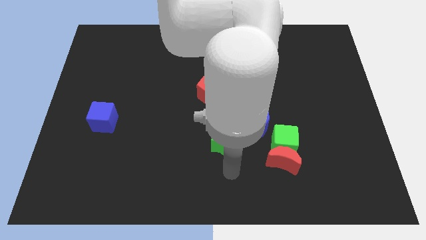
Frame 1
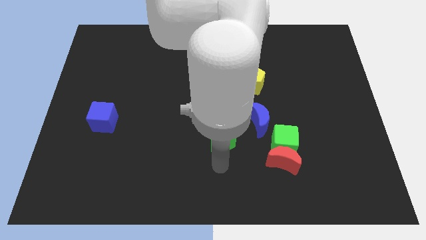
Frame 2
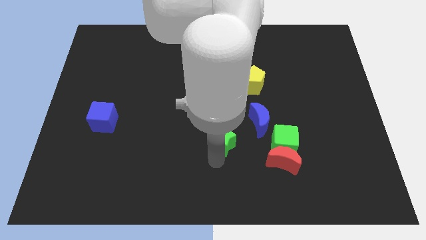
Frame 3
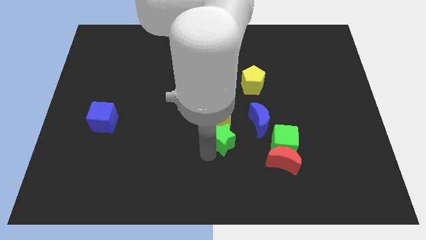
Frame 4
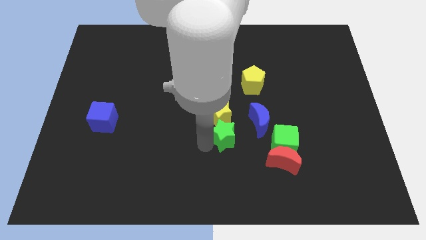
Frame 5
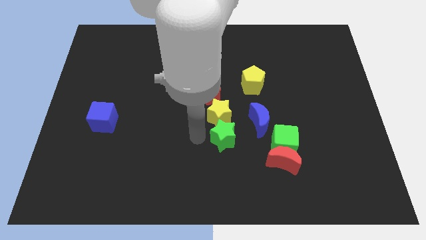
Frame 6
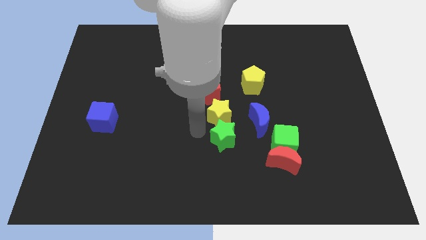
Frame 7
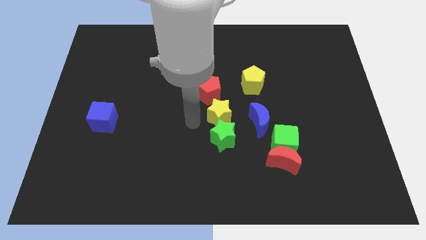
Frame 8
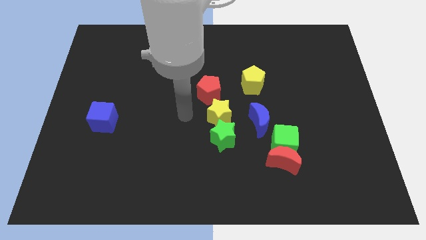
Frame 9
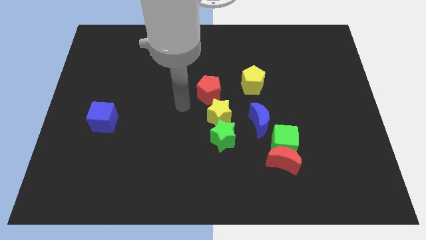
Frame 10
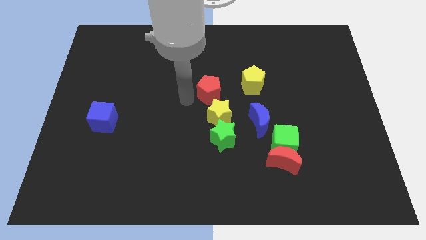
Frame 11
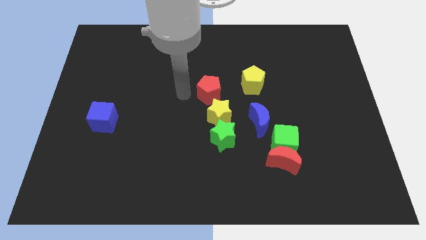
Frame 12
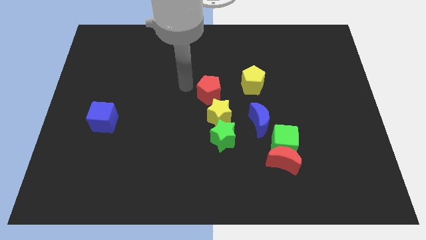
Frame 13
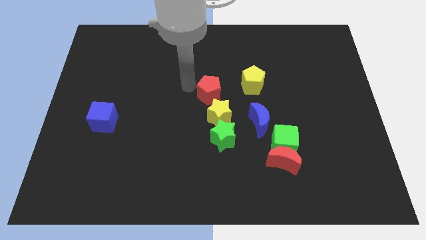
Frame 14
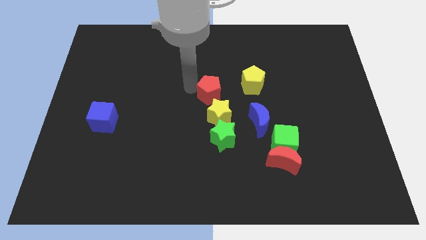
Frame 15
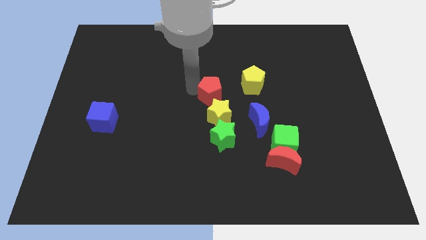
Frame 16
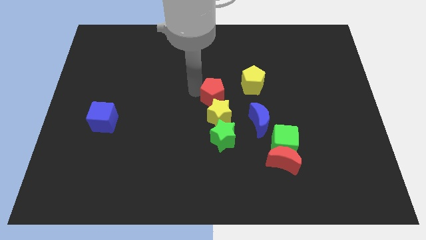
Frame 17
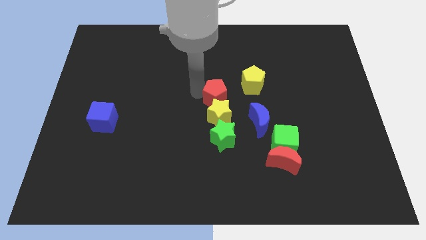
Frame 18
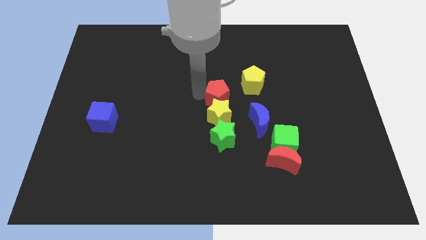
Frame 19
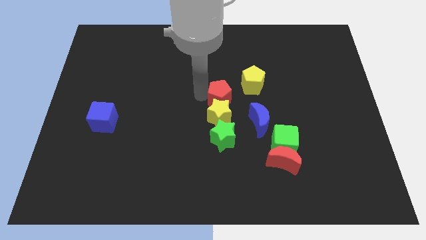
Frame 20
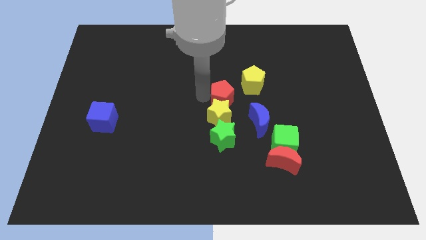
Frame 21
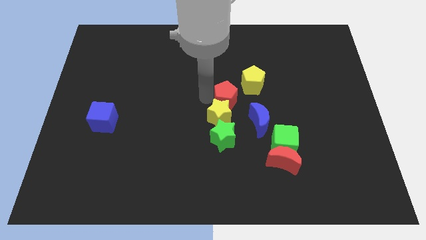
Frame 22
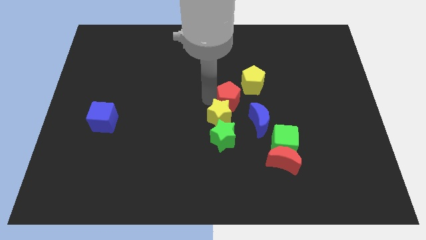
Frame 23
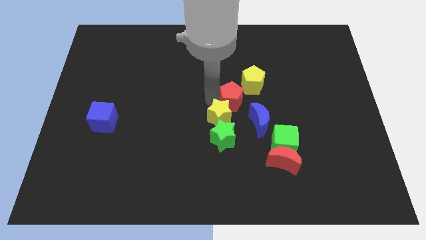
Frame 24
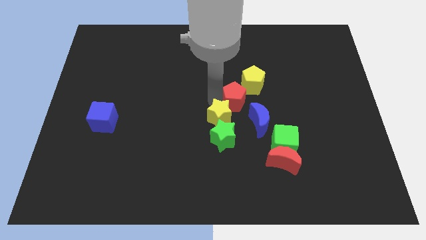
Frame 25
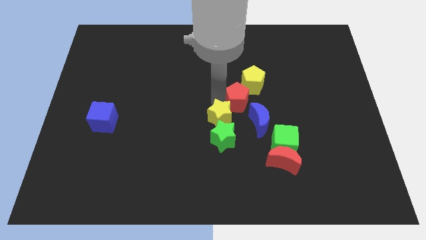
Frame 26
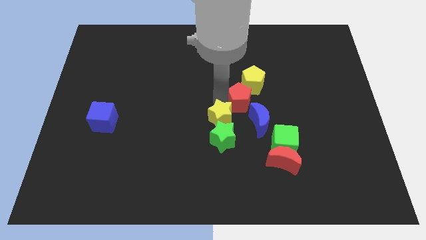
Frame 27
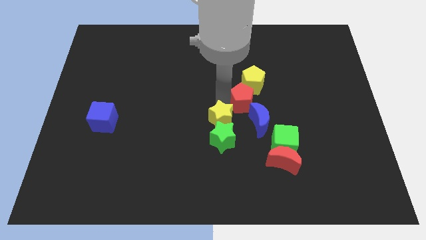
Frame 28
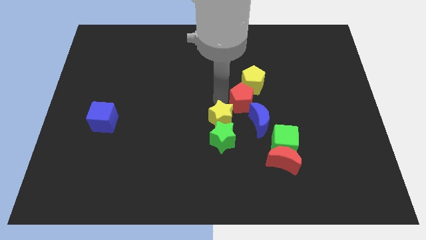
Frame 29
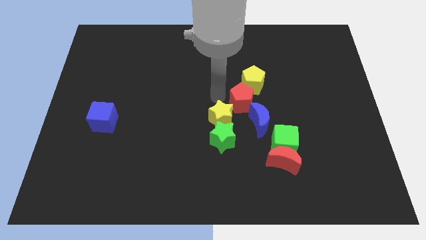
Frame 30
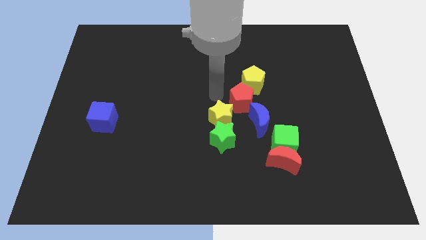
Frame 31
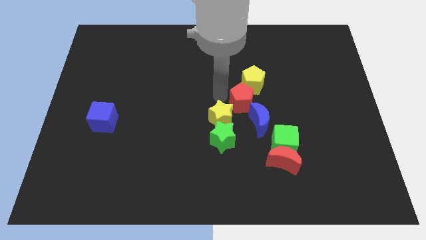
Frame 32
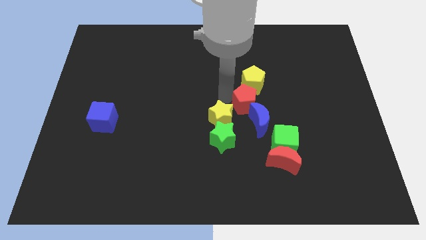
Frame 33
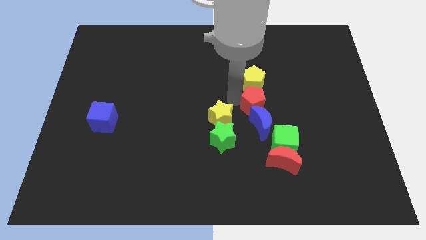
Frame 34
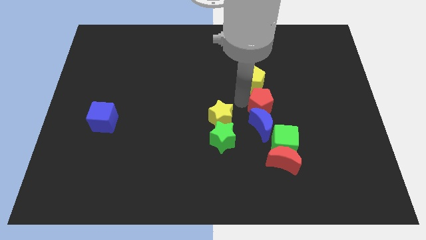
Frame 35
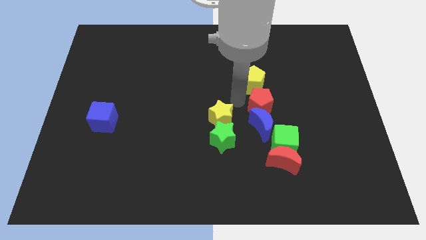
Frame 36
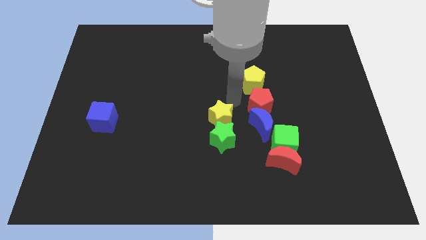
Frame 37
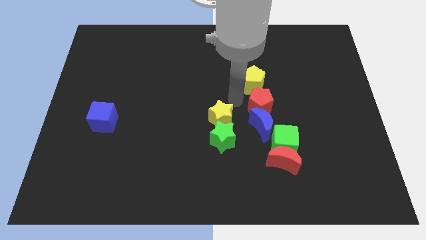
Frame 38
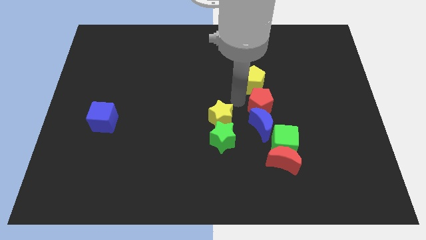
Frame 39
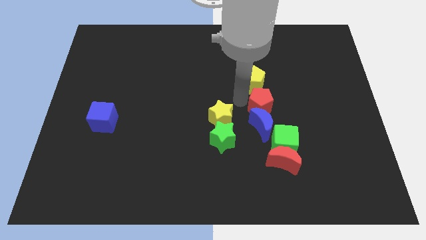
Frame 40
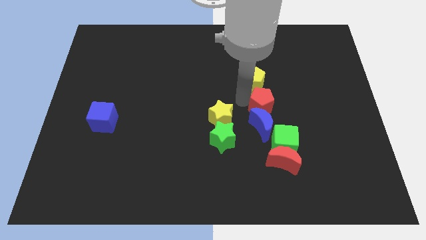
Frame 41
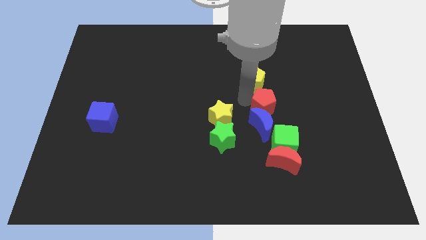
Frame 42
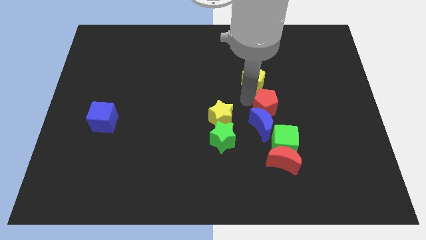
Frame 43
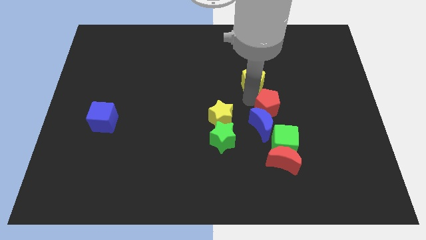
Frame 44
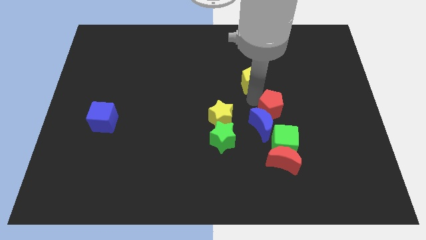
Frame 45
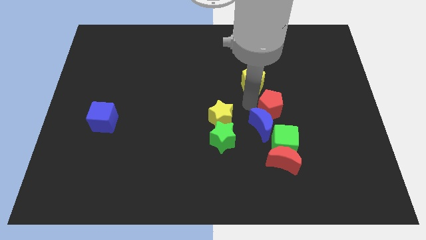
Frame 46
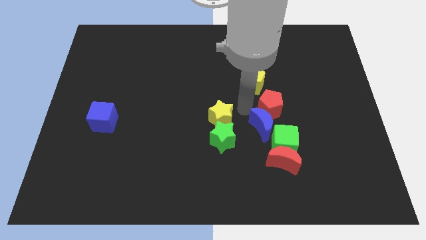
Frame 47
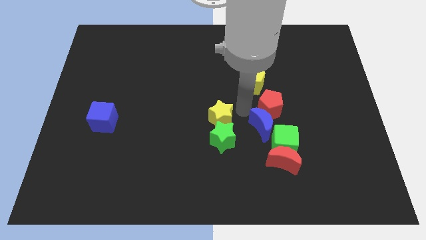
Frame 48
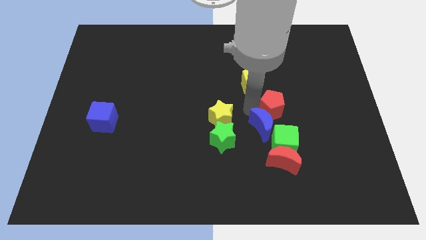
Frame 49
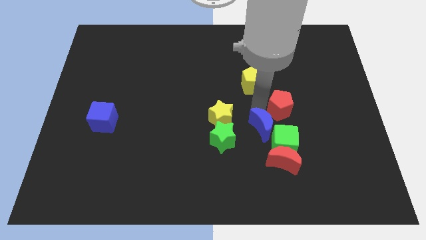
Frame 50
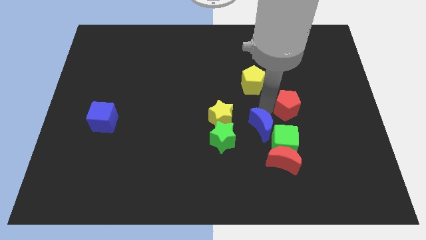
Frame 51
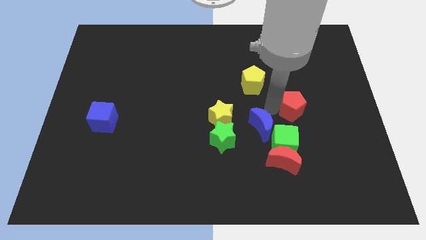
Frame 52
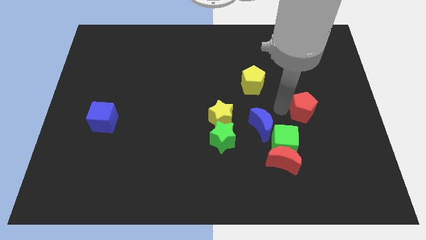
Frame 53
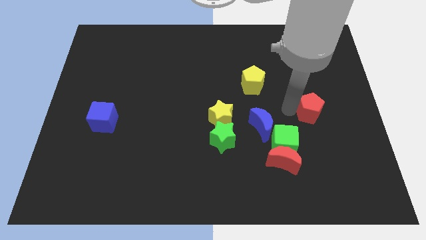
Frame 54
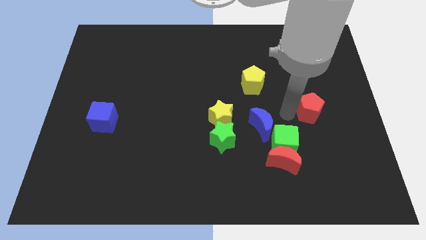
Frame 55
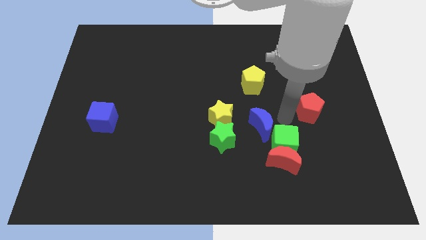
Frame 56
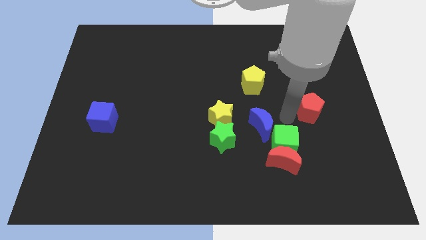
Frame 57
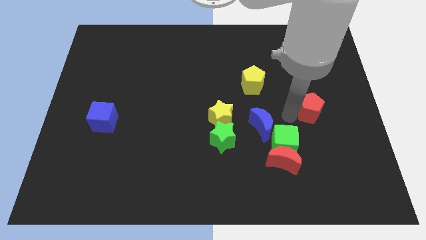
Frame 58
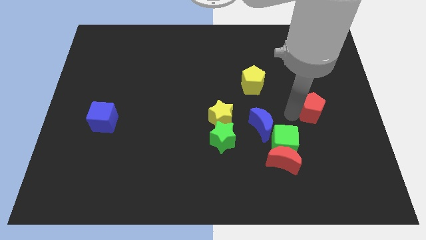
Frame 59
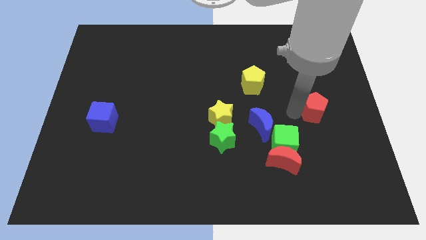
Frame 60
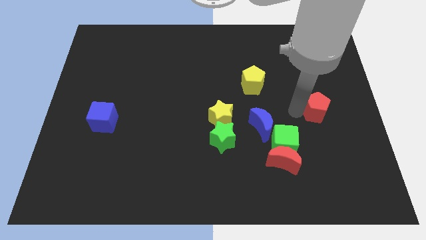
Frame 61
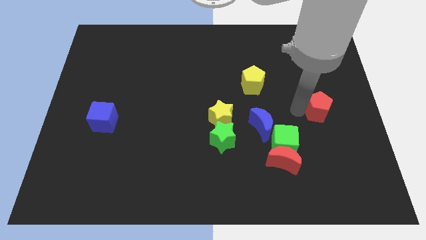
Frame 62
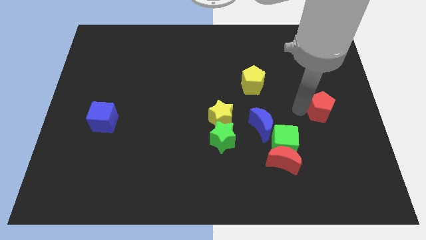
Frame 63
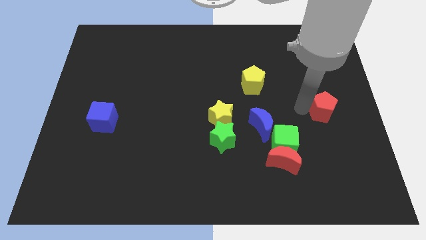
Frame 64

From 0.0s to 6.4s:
slide the red pentagon to the center right

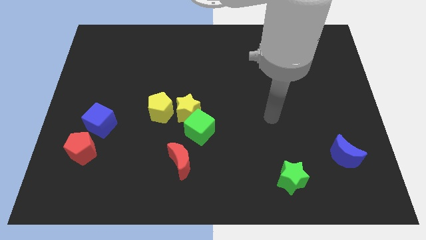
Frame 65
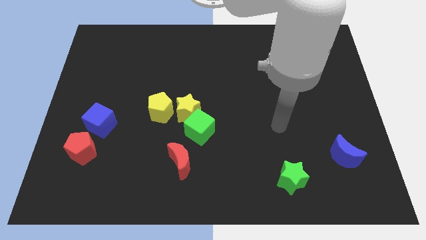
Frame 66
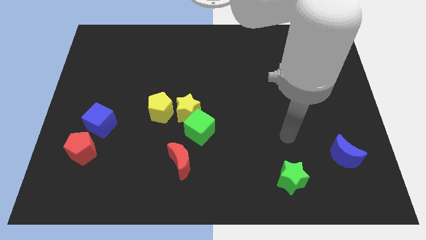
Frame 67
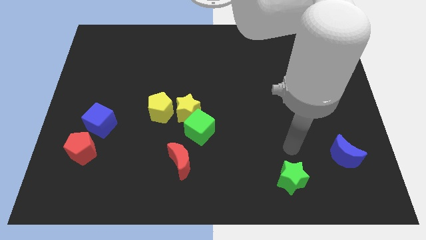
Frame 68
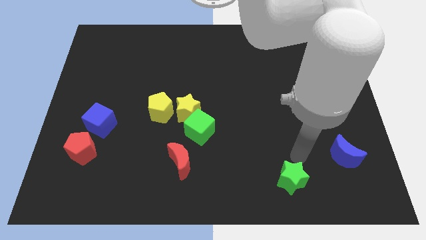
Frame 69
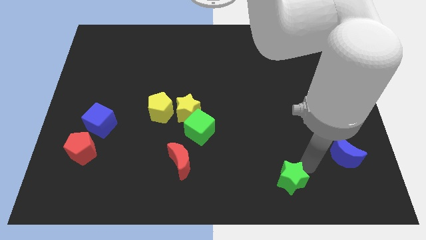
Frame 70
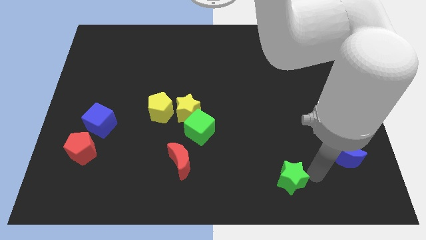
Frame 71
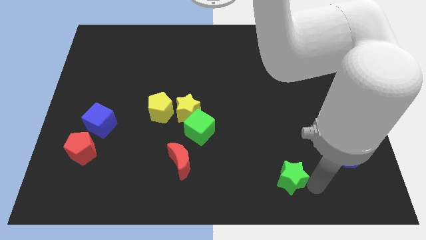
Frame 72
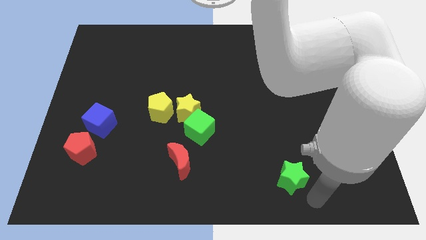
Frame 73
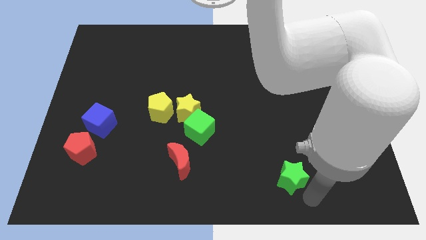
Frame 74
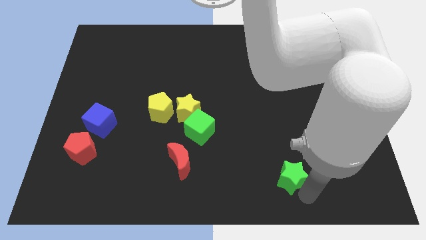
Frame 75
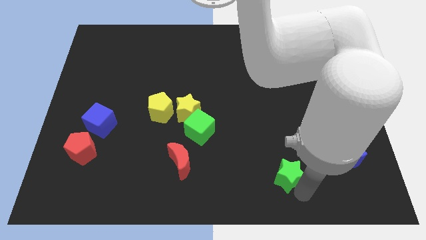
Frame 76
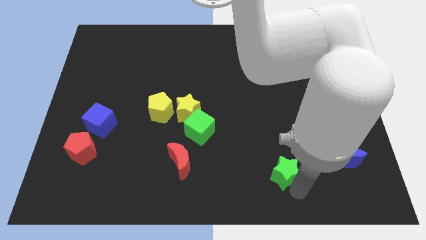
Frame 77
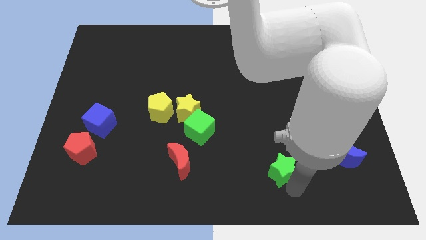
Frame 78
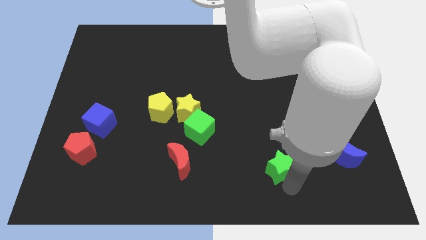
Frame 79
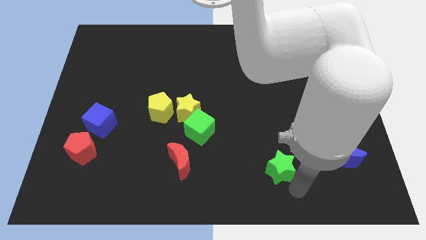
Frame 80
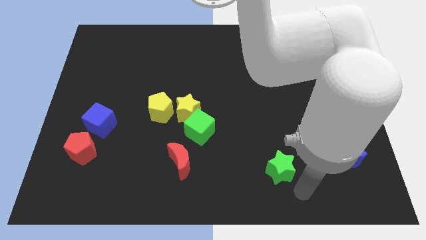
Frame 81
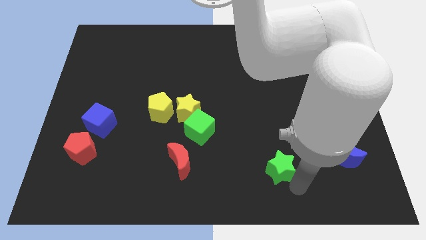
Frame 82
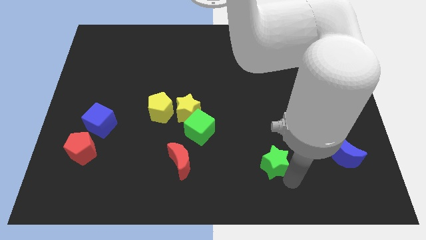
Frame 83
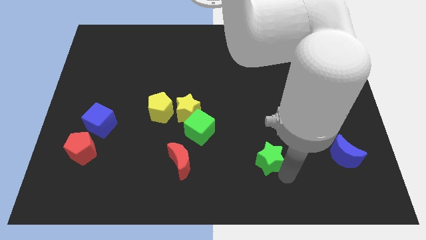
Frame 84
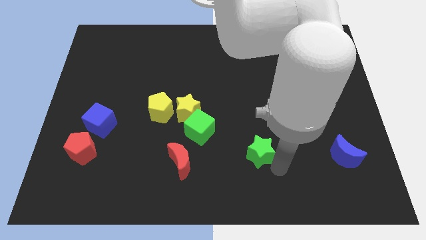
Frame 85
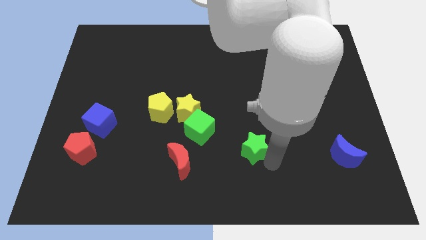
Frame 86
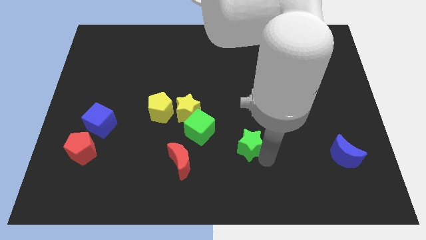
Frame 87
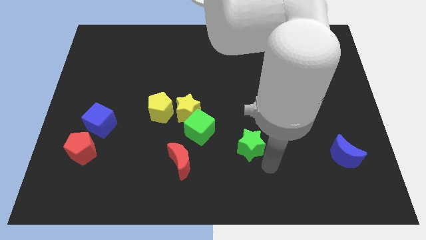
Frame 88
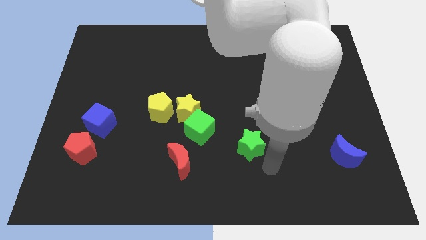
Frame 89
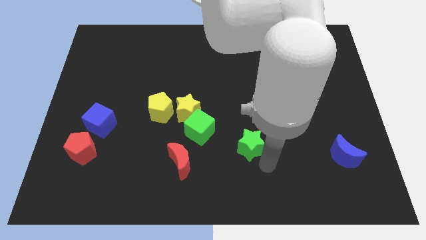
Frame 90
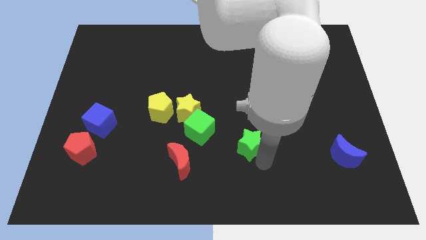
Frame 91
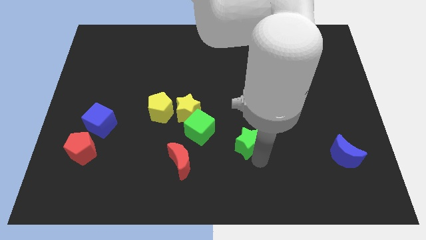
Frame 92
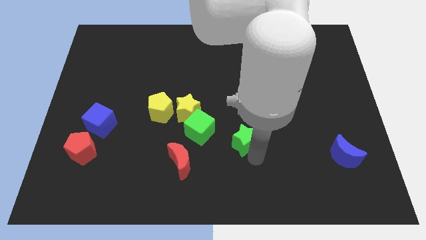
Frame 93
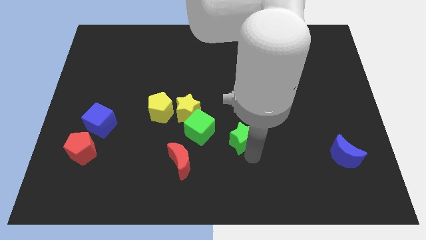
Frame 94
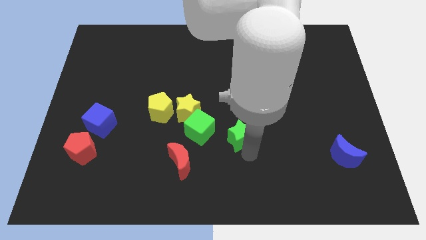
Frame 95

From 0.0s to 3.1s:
put the green star to the center of the board
